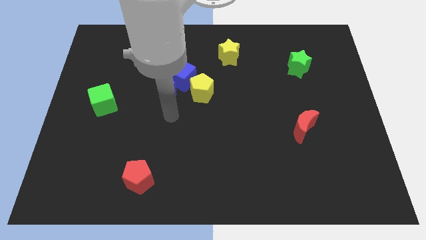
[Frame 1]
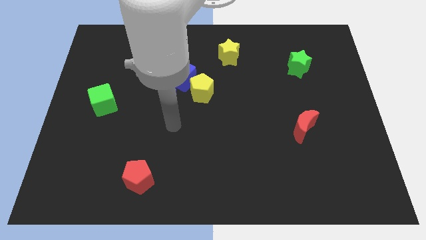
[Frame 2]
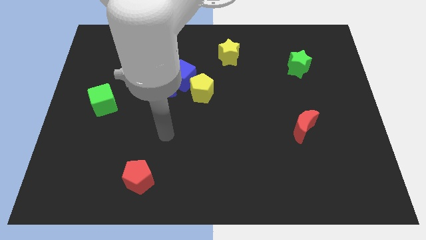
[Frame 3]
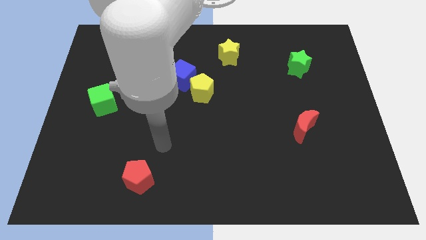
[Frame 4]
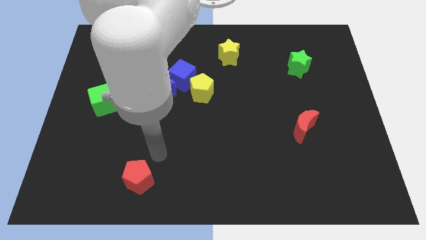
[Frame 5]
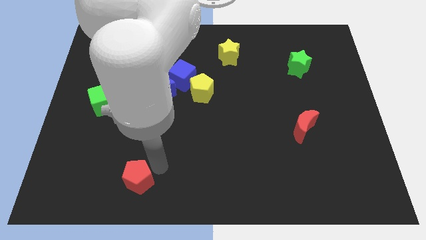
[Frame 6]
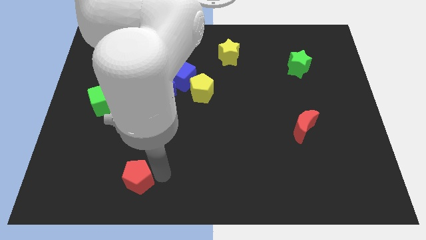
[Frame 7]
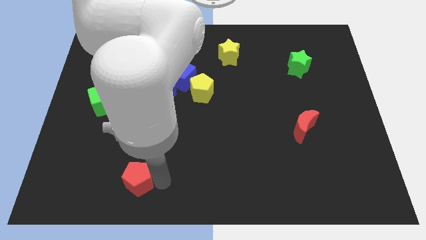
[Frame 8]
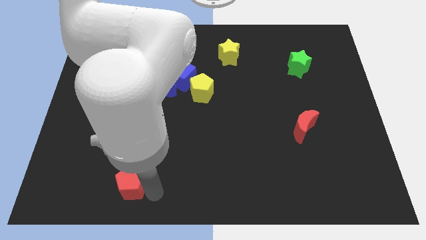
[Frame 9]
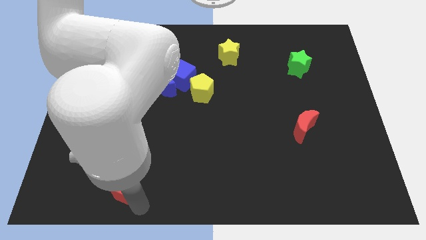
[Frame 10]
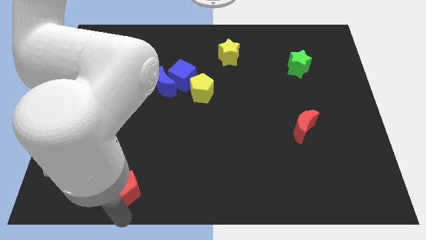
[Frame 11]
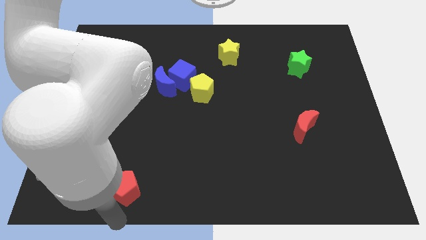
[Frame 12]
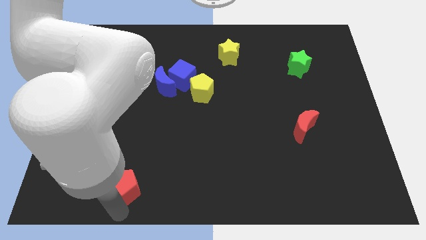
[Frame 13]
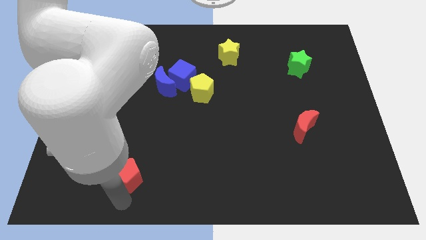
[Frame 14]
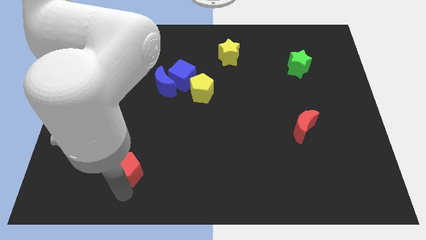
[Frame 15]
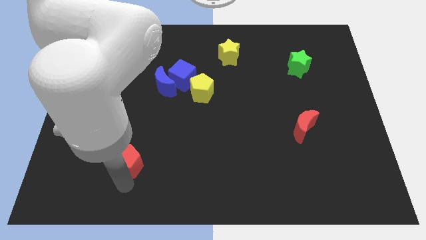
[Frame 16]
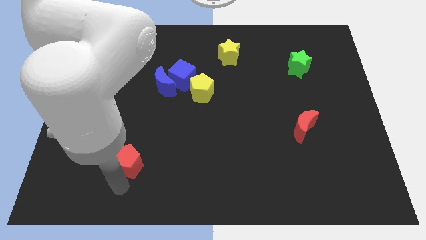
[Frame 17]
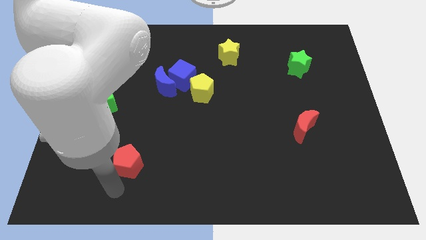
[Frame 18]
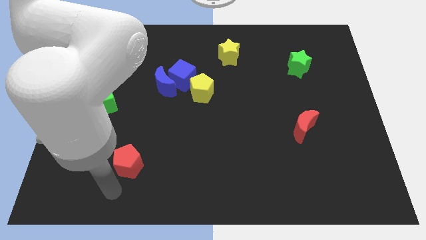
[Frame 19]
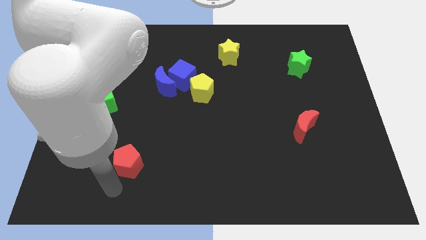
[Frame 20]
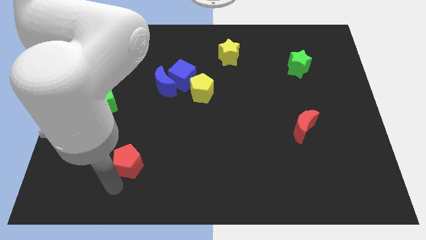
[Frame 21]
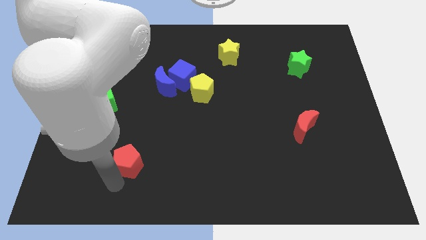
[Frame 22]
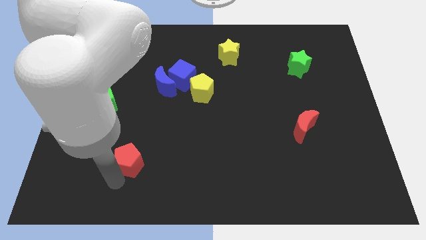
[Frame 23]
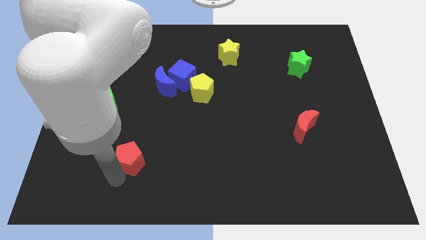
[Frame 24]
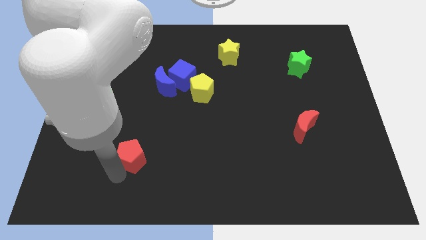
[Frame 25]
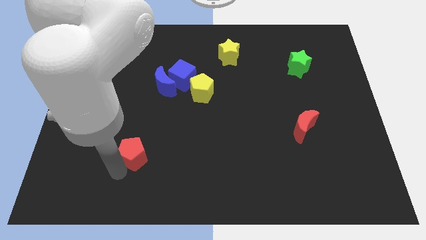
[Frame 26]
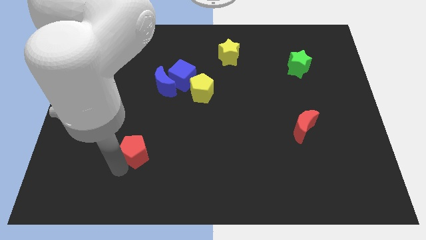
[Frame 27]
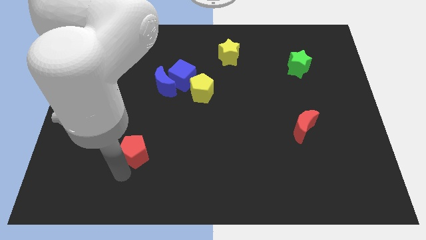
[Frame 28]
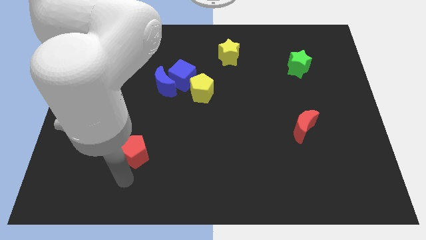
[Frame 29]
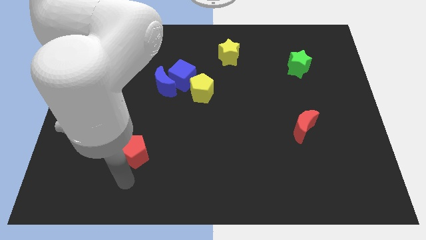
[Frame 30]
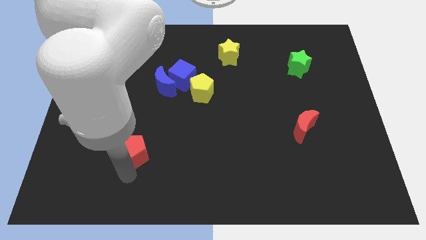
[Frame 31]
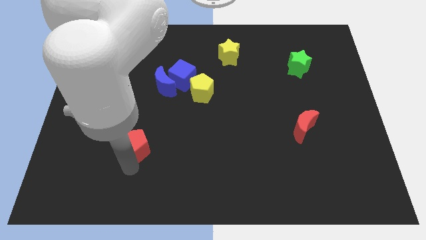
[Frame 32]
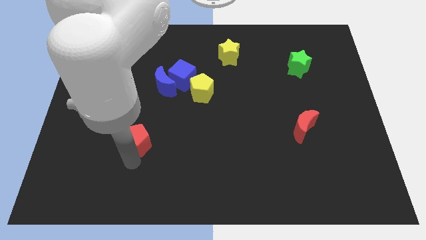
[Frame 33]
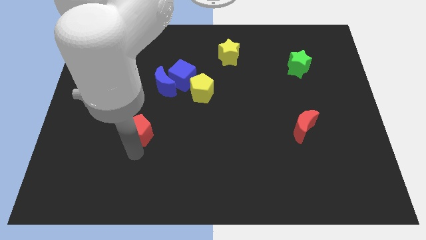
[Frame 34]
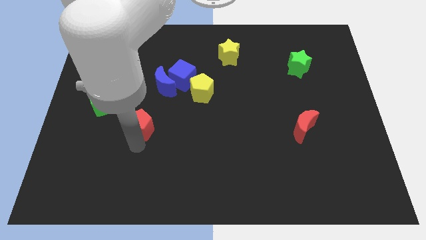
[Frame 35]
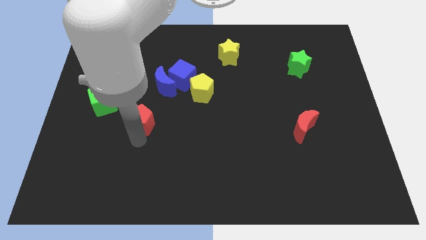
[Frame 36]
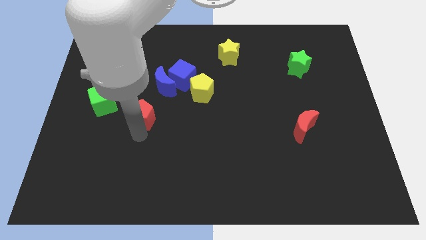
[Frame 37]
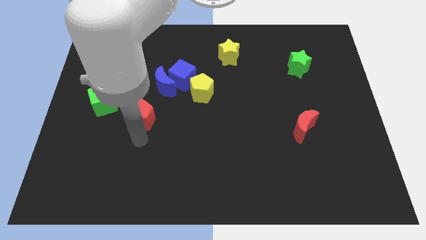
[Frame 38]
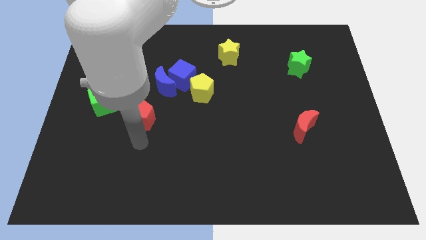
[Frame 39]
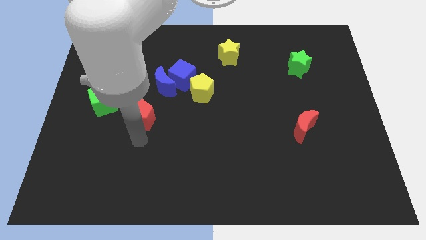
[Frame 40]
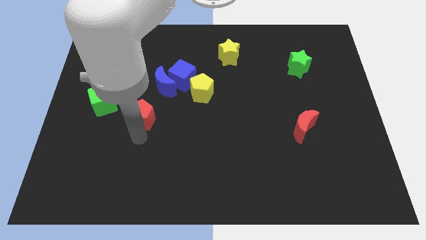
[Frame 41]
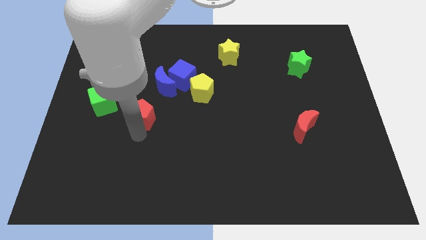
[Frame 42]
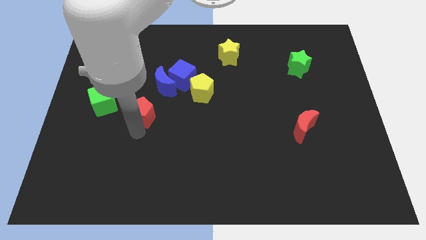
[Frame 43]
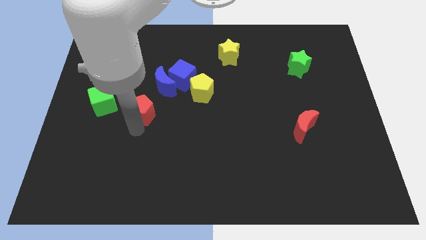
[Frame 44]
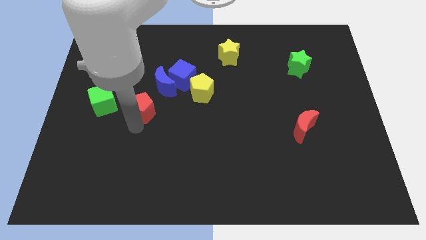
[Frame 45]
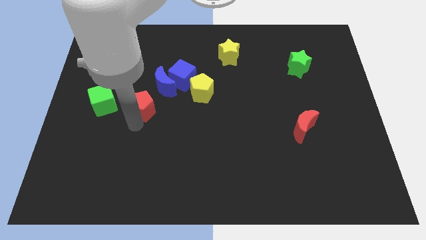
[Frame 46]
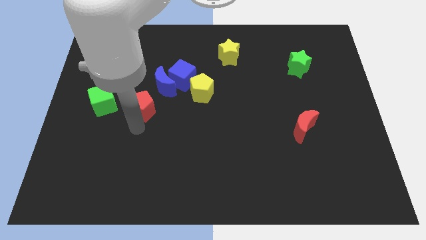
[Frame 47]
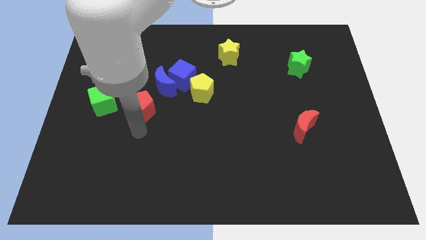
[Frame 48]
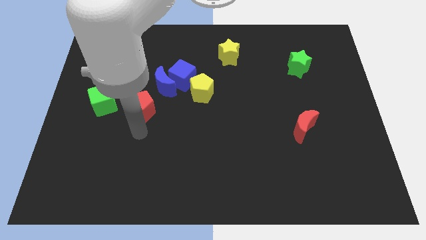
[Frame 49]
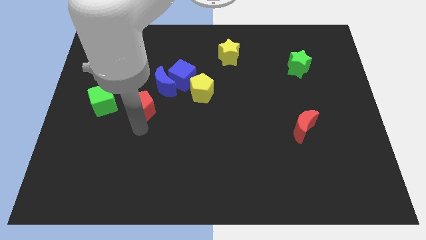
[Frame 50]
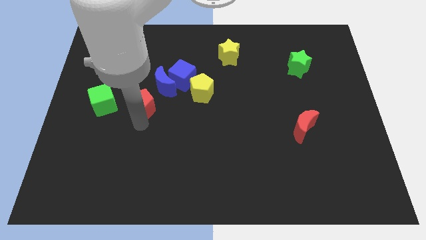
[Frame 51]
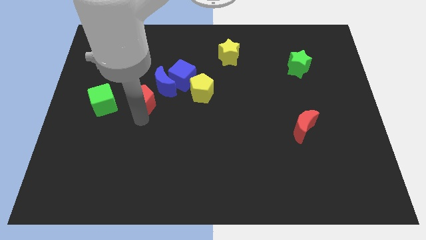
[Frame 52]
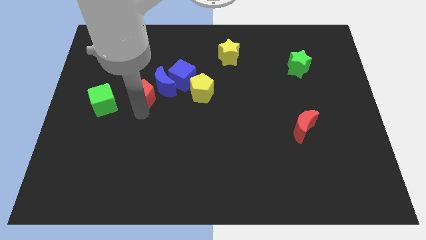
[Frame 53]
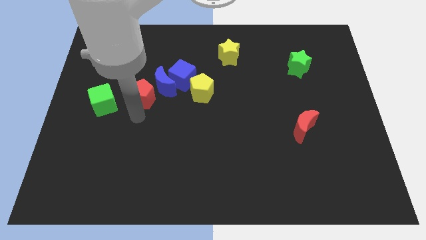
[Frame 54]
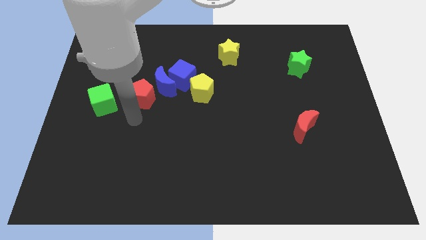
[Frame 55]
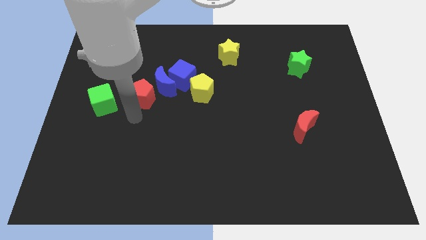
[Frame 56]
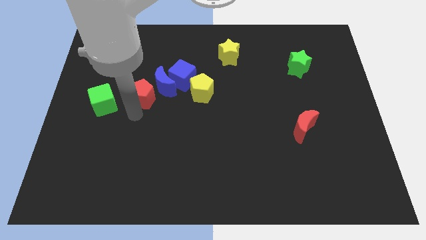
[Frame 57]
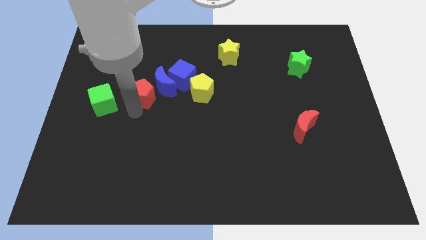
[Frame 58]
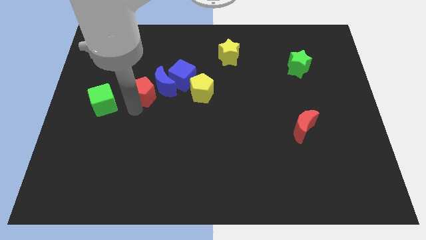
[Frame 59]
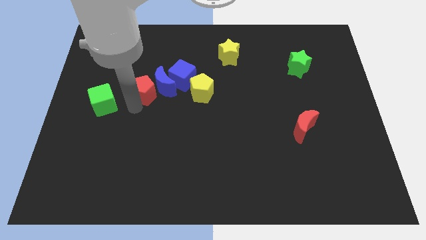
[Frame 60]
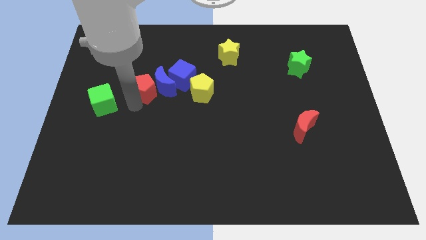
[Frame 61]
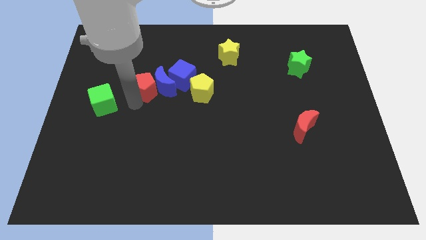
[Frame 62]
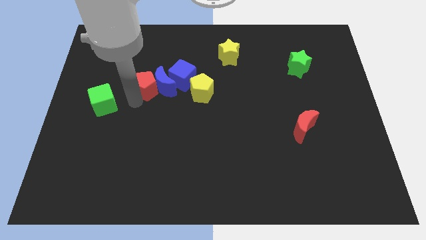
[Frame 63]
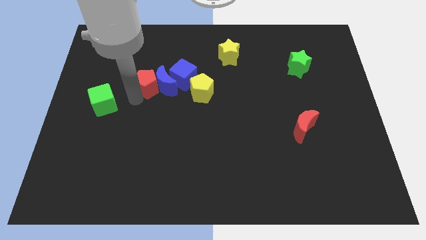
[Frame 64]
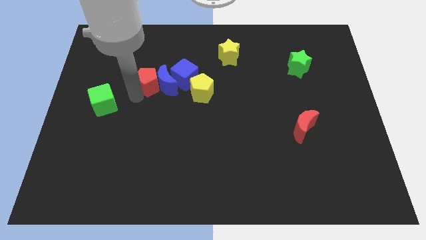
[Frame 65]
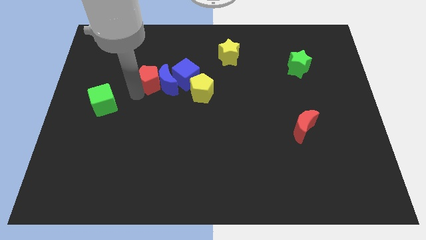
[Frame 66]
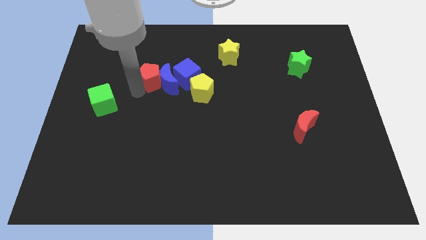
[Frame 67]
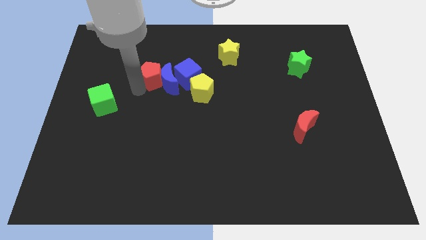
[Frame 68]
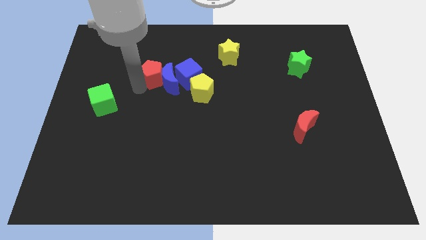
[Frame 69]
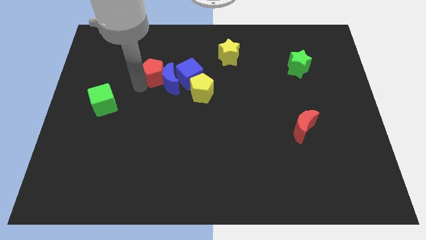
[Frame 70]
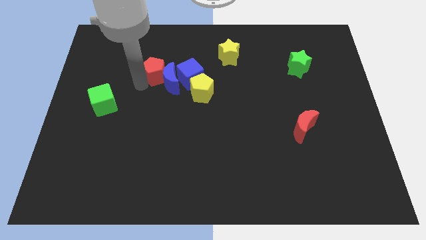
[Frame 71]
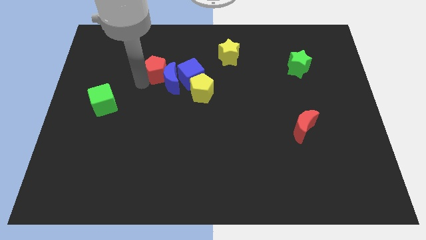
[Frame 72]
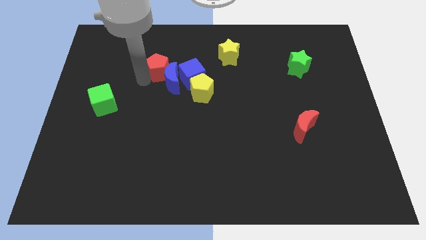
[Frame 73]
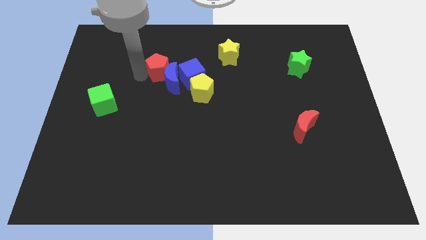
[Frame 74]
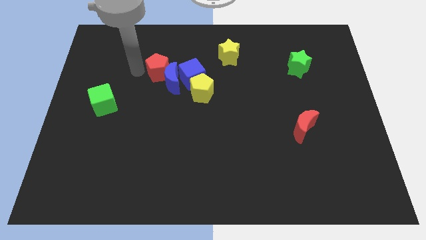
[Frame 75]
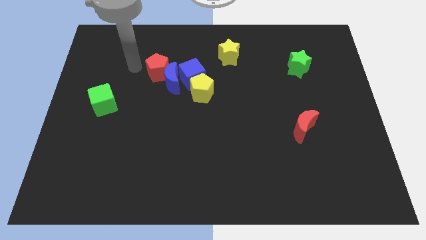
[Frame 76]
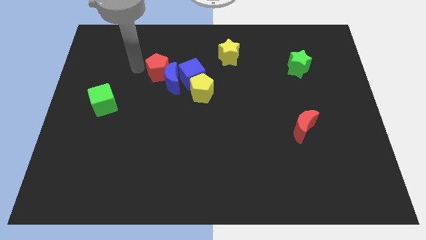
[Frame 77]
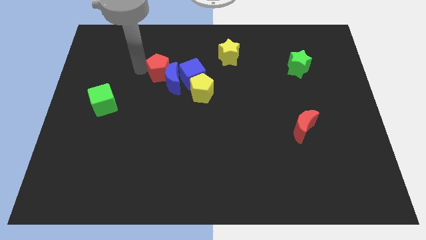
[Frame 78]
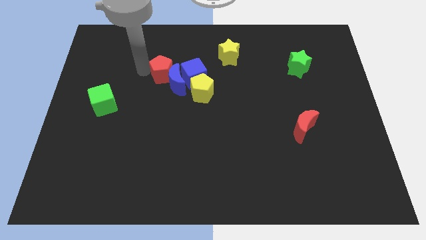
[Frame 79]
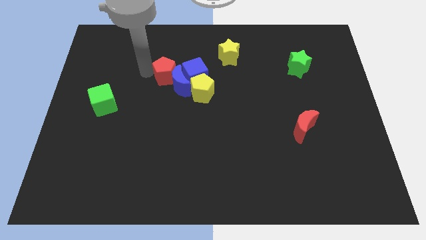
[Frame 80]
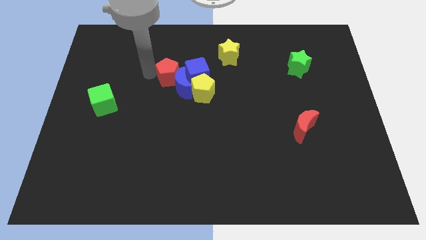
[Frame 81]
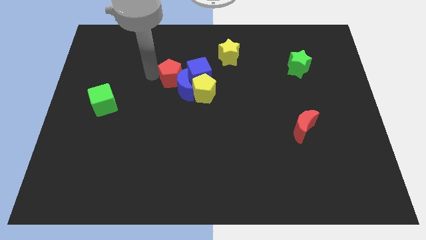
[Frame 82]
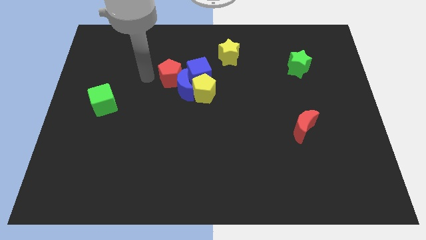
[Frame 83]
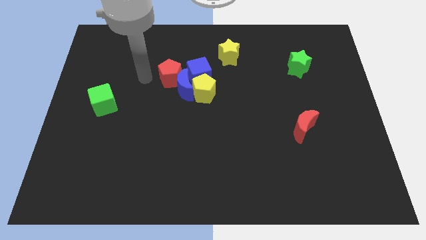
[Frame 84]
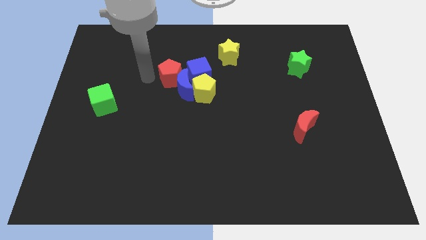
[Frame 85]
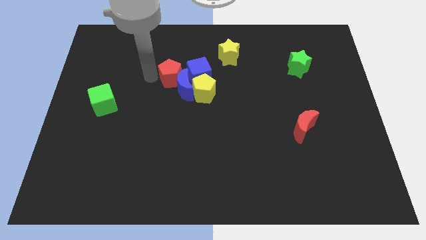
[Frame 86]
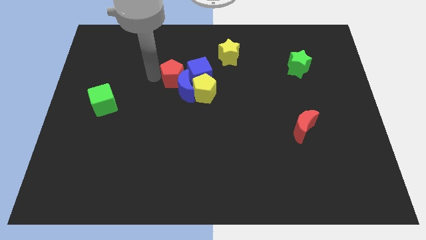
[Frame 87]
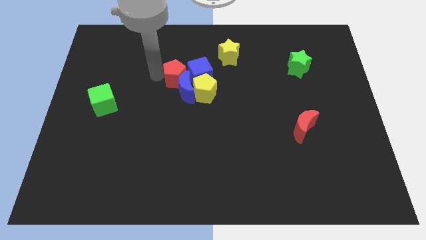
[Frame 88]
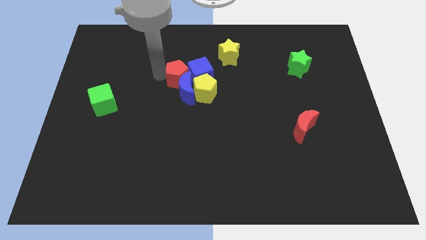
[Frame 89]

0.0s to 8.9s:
push the red pentagon next to the blue cube
